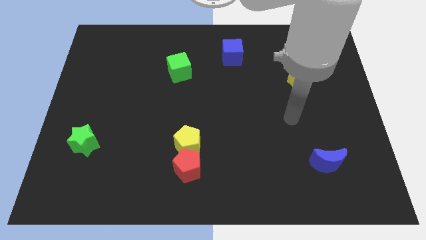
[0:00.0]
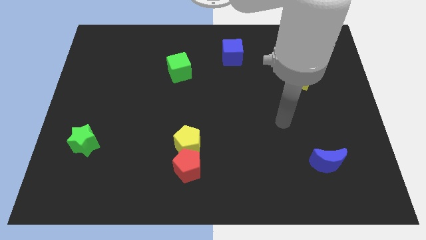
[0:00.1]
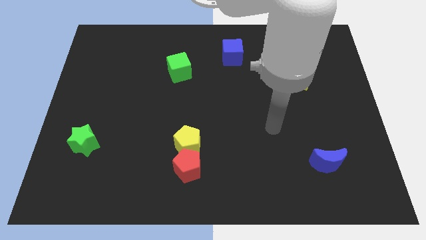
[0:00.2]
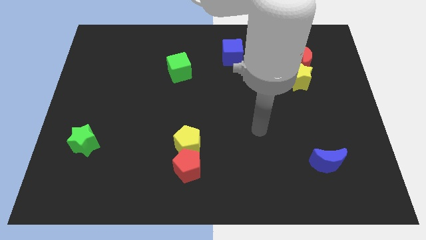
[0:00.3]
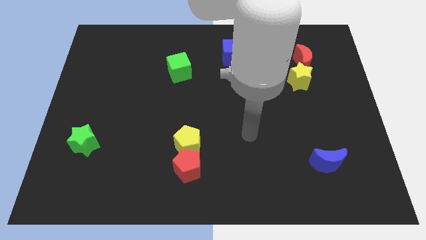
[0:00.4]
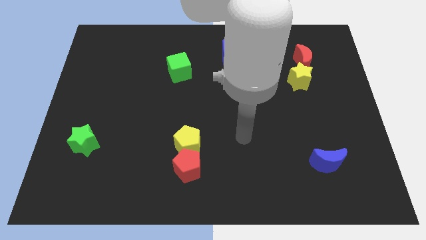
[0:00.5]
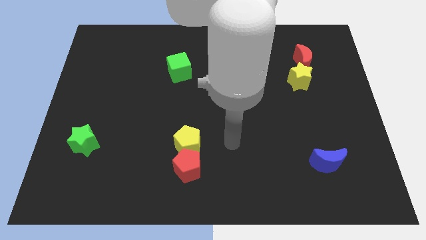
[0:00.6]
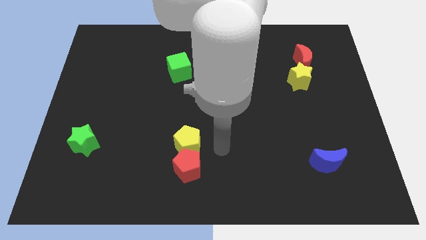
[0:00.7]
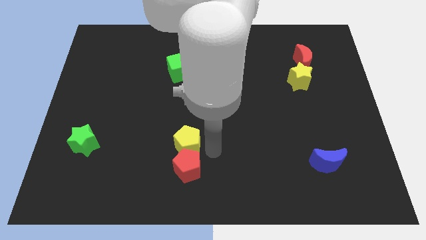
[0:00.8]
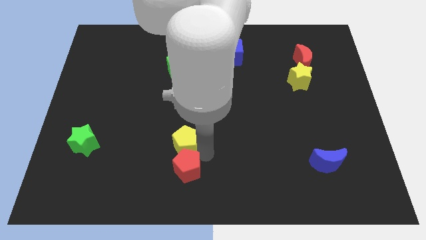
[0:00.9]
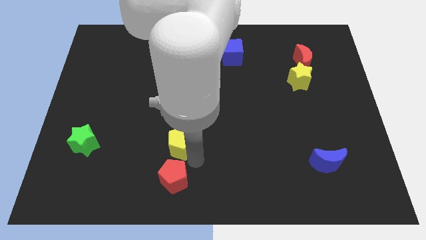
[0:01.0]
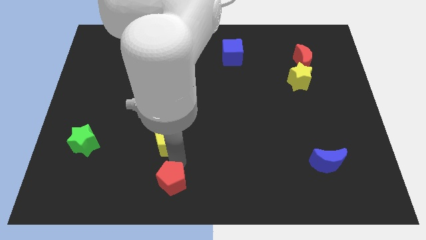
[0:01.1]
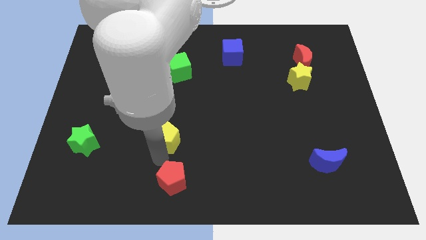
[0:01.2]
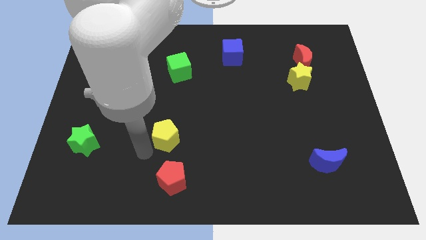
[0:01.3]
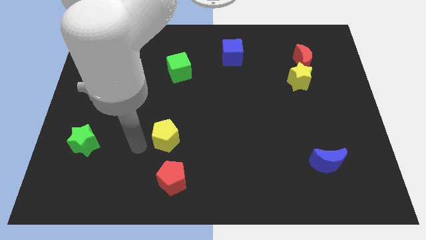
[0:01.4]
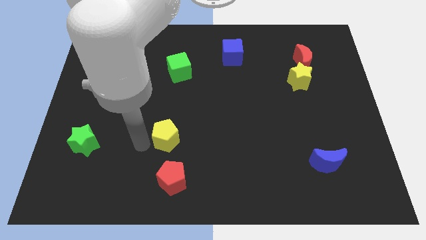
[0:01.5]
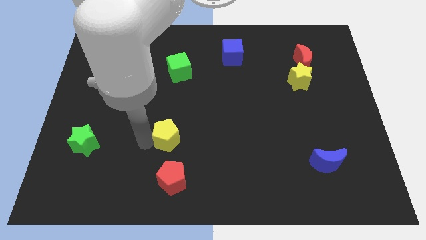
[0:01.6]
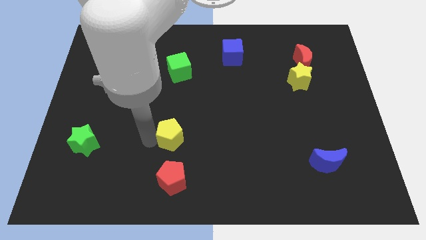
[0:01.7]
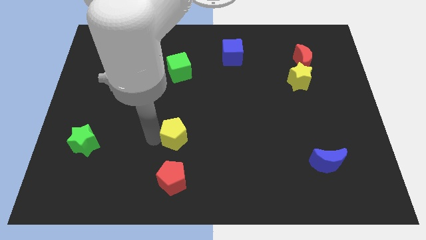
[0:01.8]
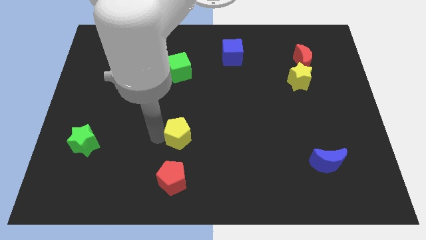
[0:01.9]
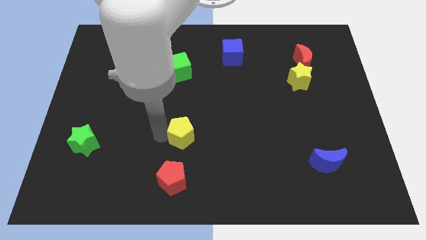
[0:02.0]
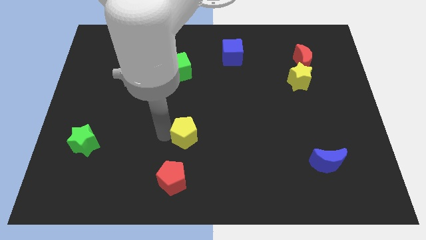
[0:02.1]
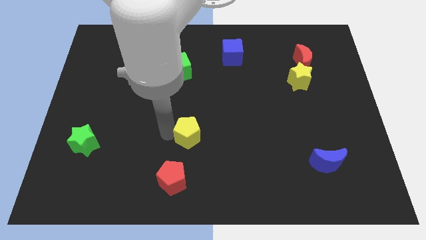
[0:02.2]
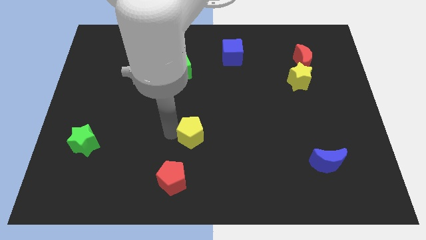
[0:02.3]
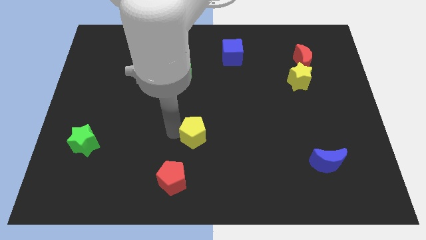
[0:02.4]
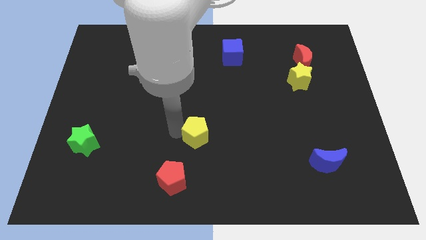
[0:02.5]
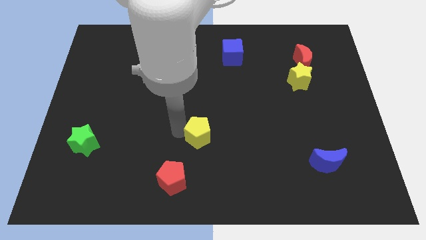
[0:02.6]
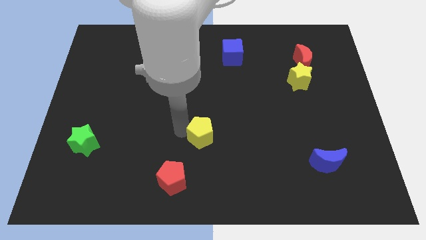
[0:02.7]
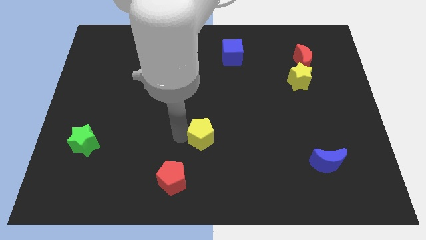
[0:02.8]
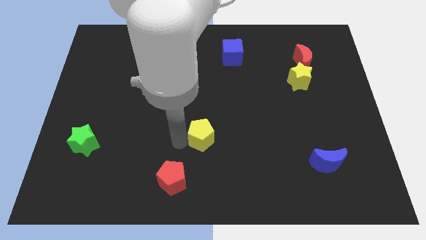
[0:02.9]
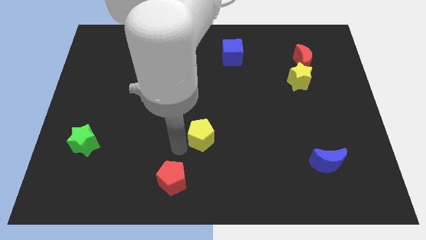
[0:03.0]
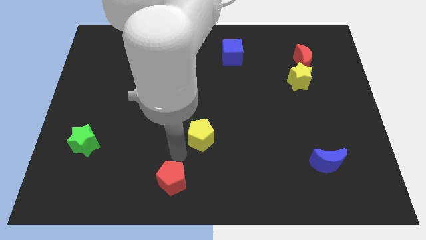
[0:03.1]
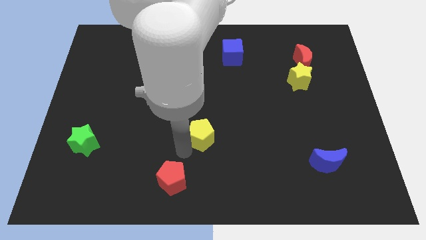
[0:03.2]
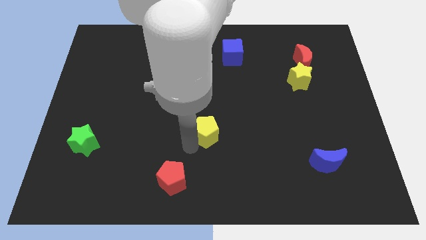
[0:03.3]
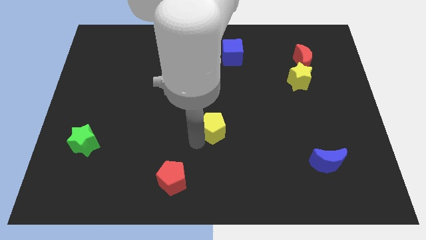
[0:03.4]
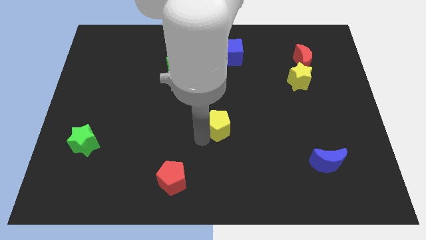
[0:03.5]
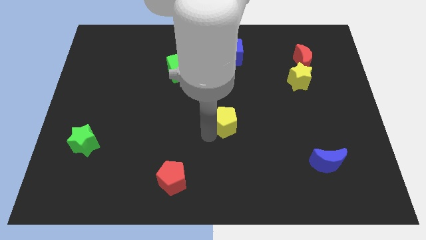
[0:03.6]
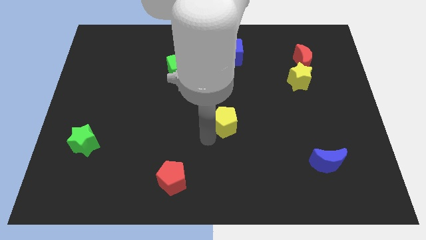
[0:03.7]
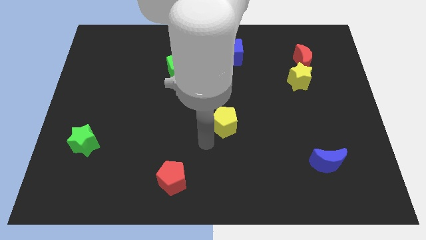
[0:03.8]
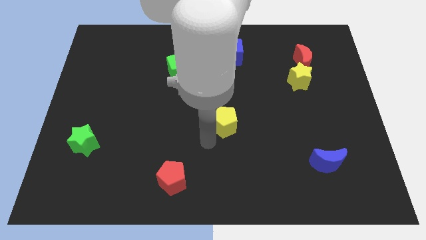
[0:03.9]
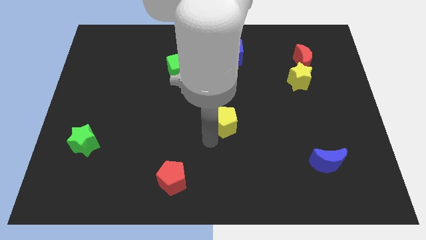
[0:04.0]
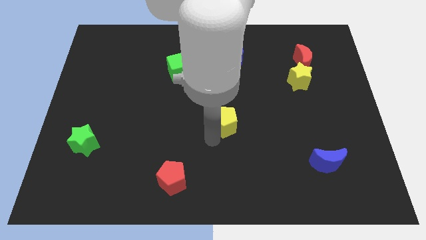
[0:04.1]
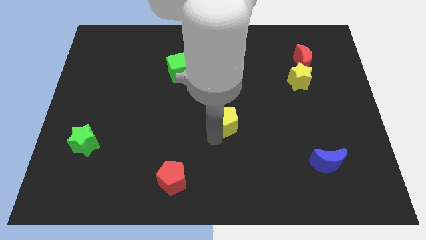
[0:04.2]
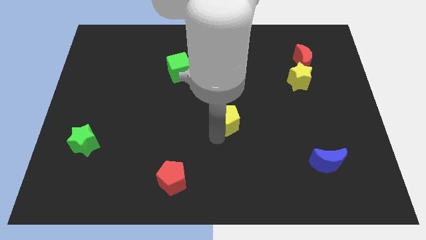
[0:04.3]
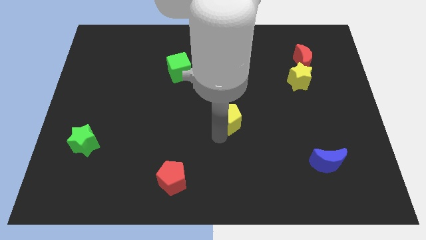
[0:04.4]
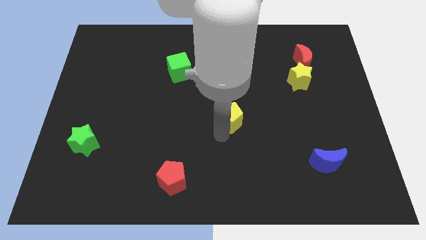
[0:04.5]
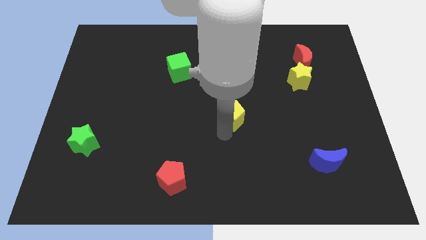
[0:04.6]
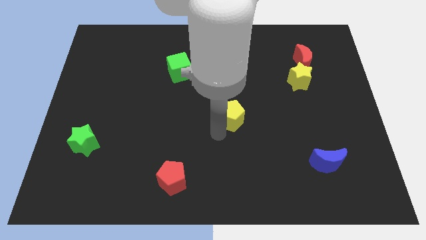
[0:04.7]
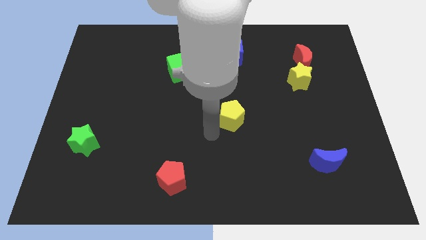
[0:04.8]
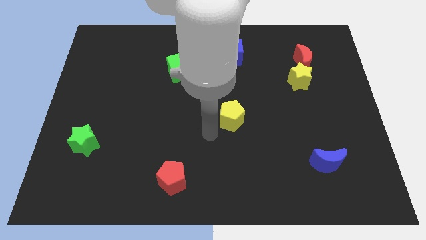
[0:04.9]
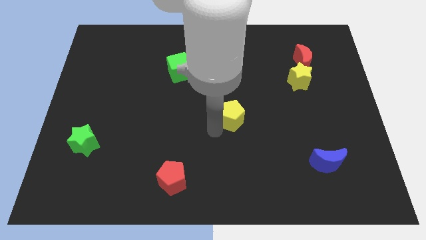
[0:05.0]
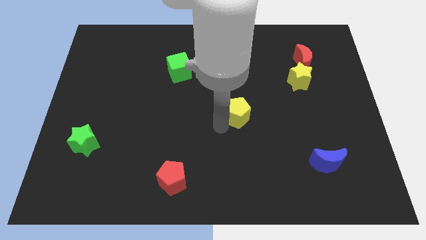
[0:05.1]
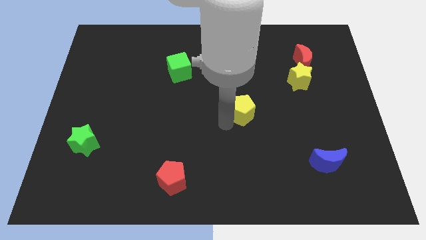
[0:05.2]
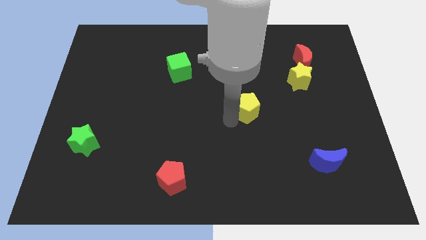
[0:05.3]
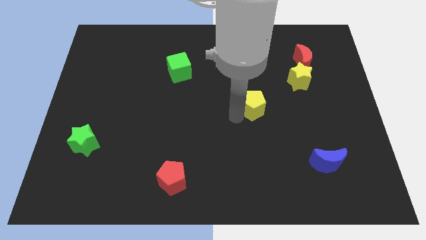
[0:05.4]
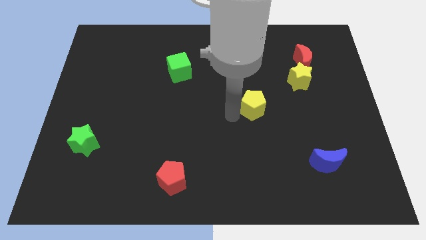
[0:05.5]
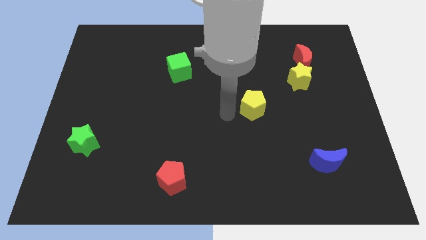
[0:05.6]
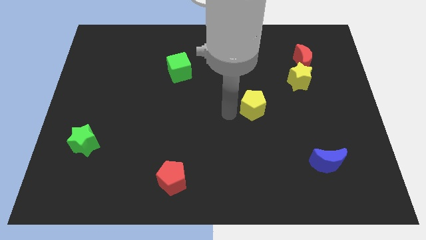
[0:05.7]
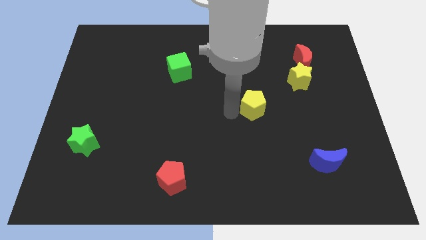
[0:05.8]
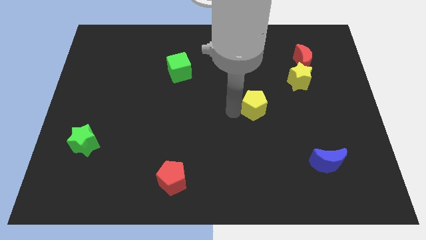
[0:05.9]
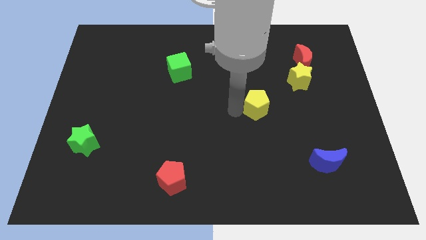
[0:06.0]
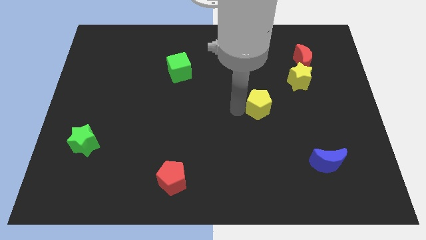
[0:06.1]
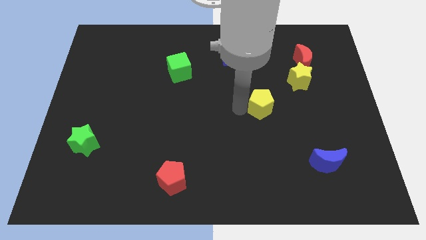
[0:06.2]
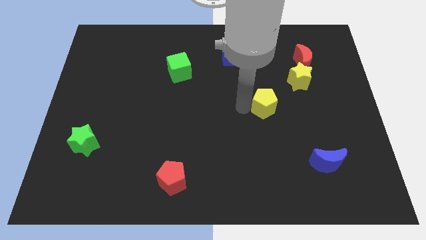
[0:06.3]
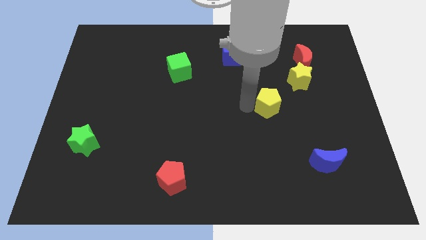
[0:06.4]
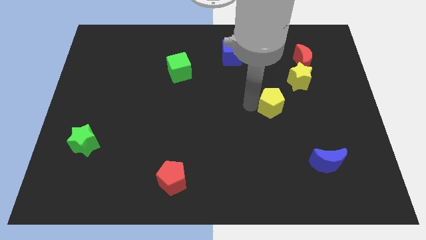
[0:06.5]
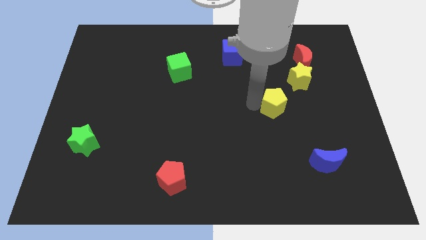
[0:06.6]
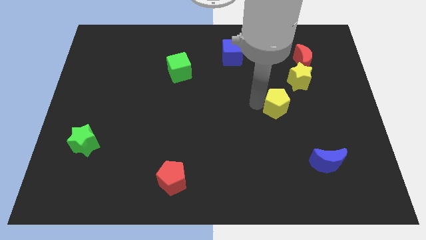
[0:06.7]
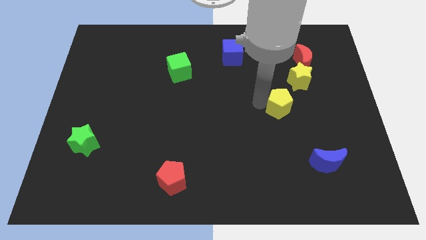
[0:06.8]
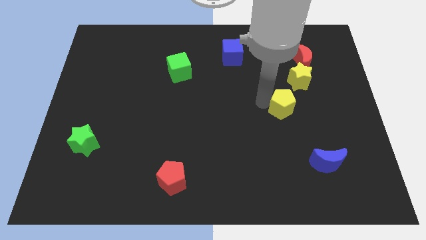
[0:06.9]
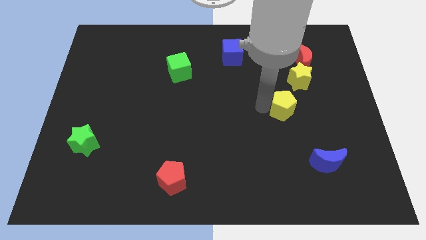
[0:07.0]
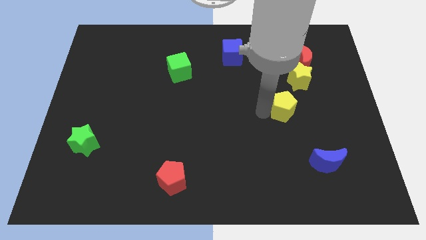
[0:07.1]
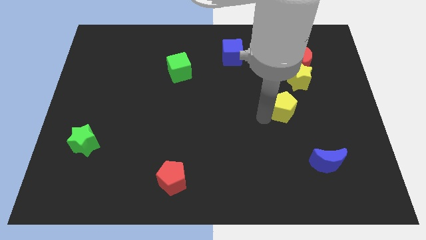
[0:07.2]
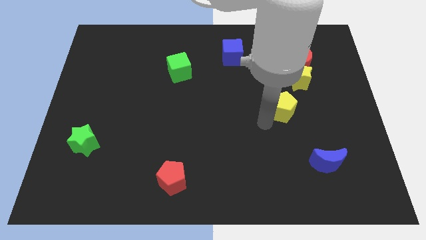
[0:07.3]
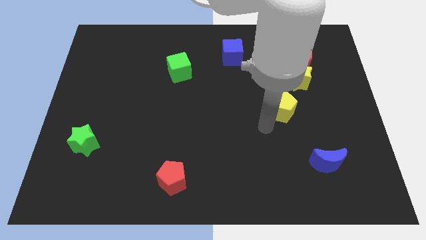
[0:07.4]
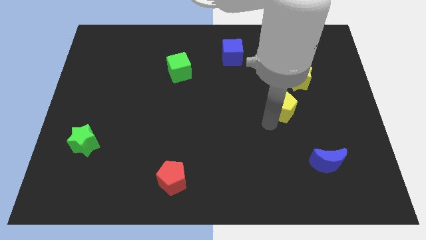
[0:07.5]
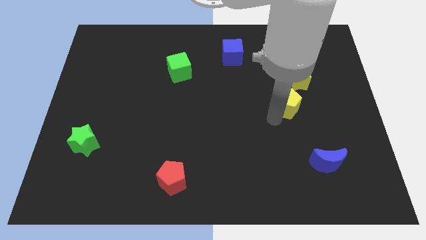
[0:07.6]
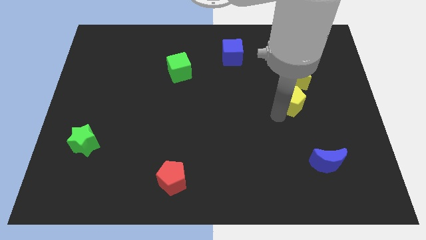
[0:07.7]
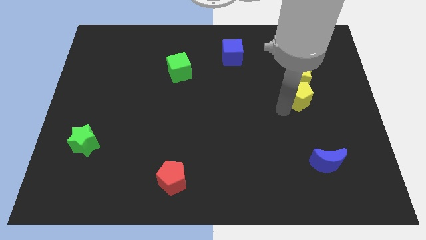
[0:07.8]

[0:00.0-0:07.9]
put the yellow pentagon to the bottom right of the yellow star
